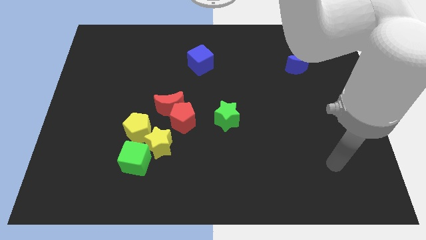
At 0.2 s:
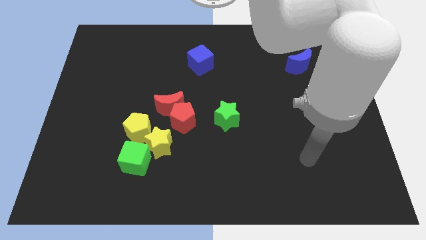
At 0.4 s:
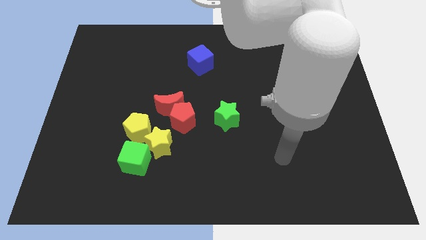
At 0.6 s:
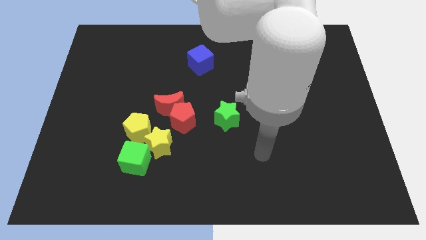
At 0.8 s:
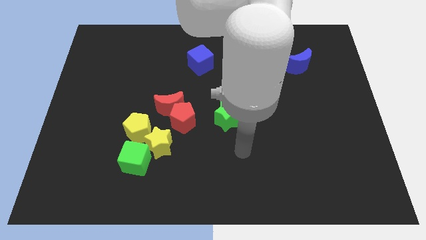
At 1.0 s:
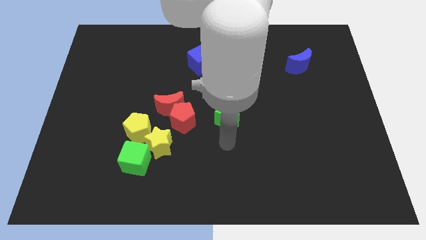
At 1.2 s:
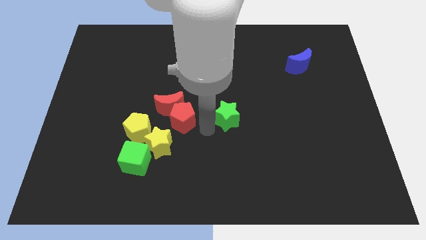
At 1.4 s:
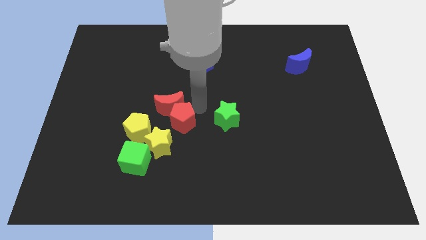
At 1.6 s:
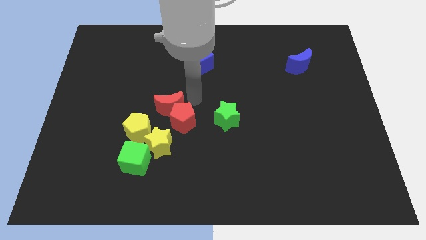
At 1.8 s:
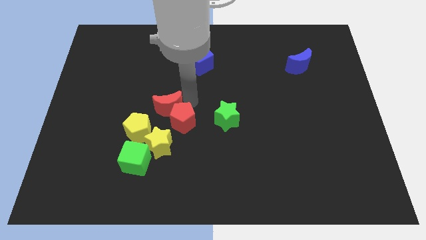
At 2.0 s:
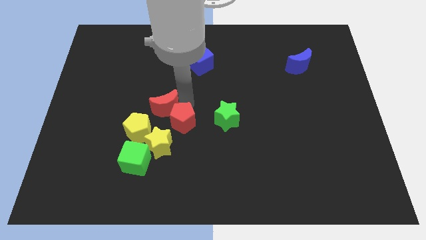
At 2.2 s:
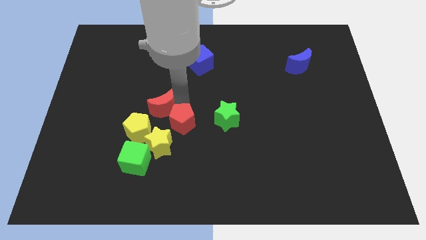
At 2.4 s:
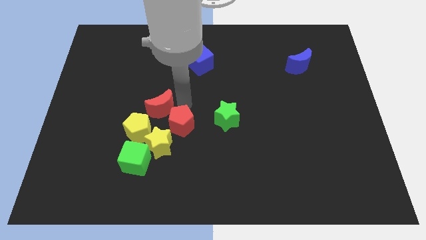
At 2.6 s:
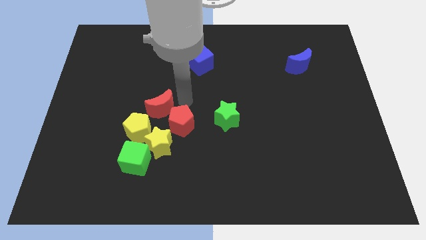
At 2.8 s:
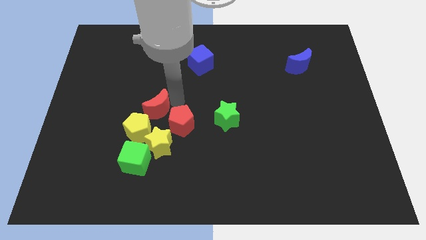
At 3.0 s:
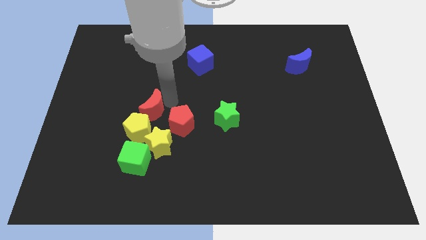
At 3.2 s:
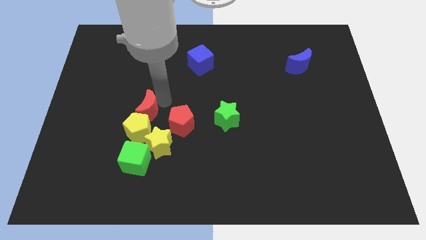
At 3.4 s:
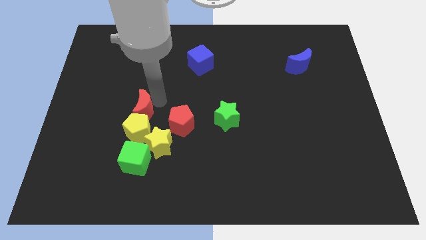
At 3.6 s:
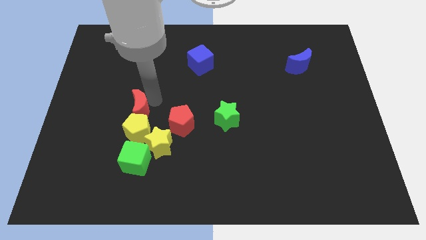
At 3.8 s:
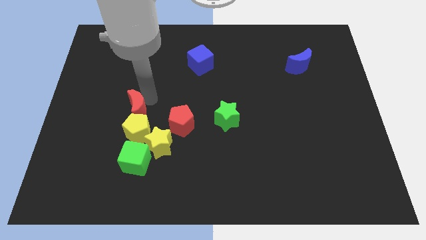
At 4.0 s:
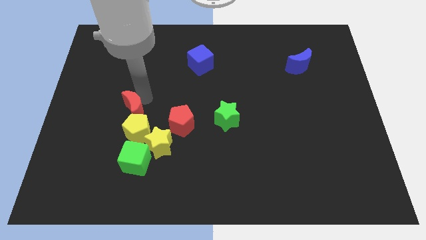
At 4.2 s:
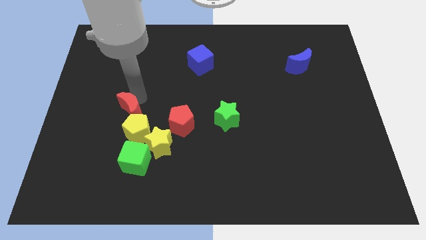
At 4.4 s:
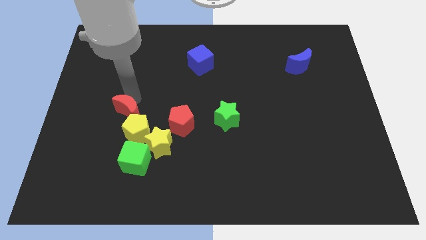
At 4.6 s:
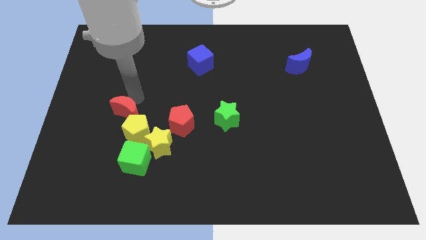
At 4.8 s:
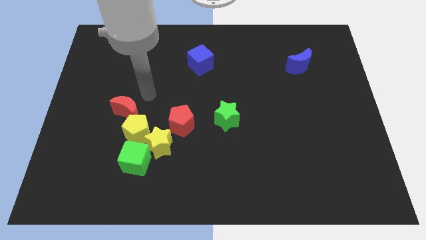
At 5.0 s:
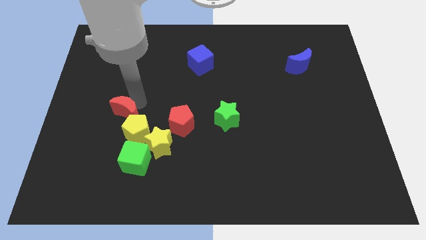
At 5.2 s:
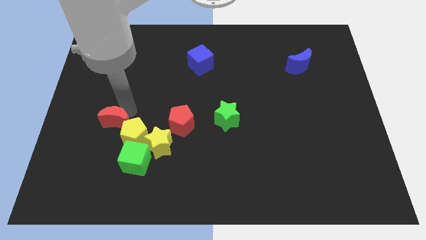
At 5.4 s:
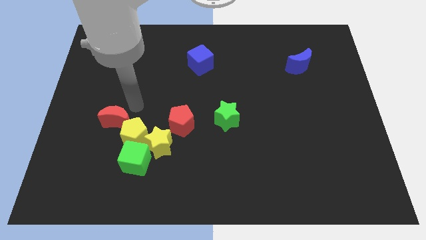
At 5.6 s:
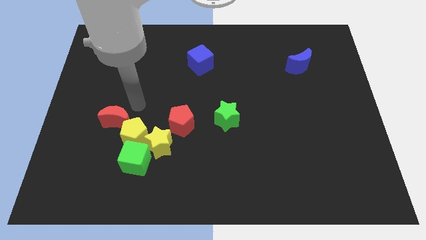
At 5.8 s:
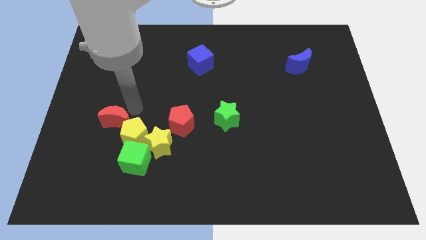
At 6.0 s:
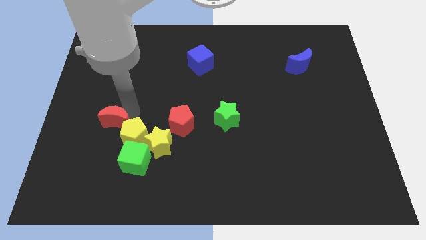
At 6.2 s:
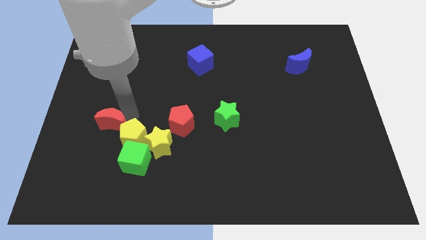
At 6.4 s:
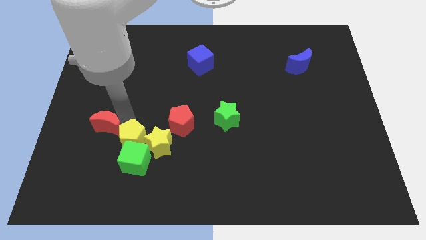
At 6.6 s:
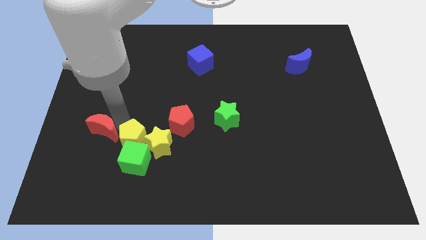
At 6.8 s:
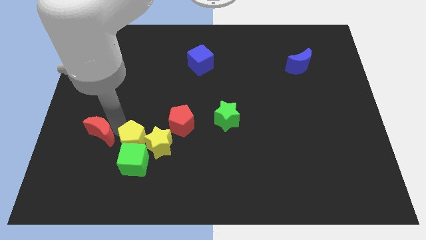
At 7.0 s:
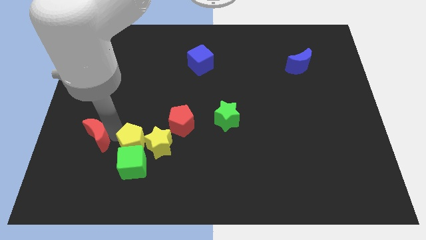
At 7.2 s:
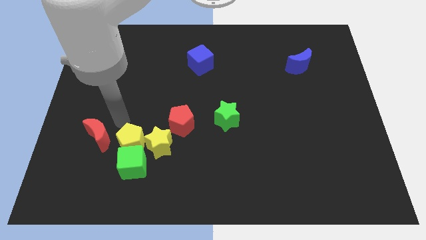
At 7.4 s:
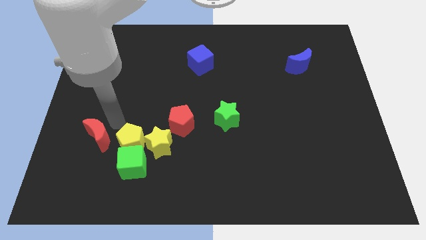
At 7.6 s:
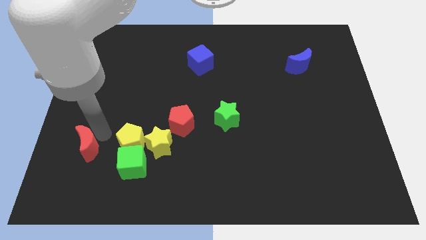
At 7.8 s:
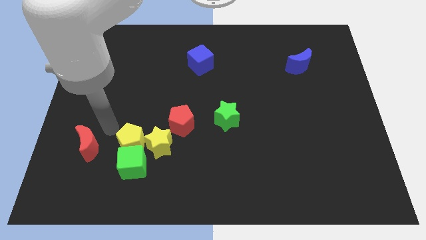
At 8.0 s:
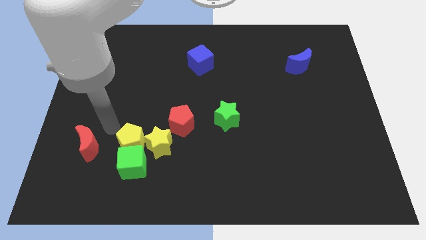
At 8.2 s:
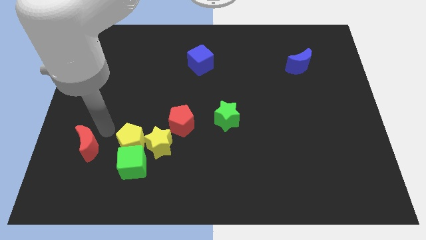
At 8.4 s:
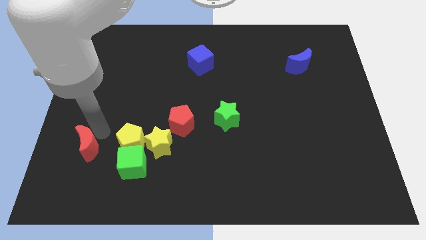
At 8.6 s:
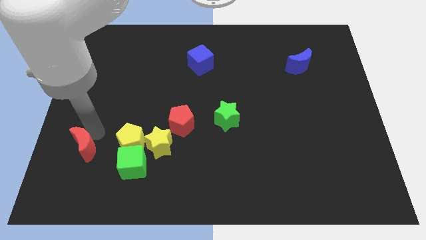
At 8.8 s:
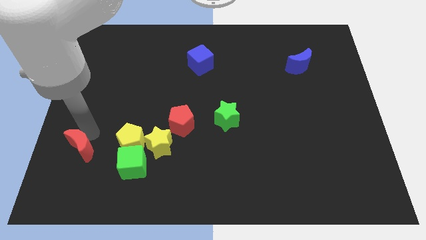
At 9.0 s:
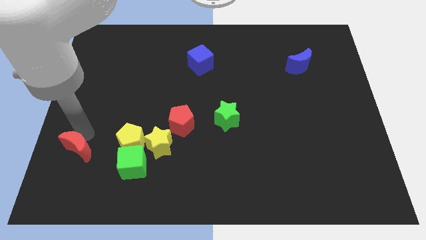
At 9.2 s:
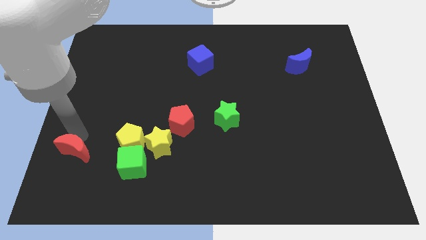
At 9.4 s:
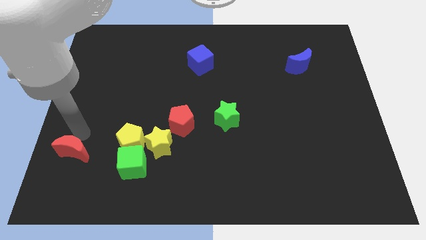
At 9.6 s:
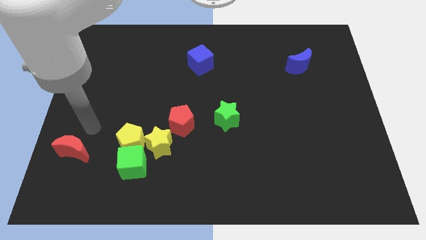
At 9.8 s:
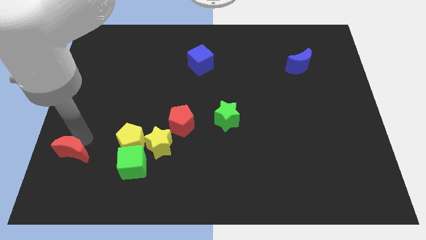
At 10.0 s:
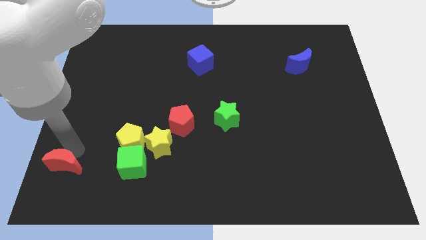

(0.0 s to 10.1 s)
move the red moon to the bottom left corner

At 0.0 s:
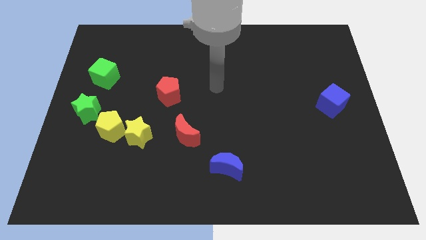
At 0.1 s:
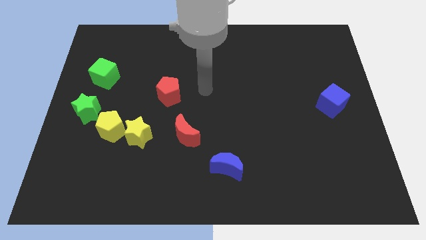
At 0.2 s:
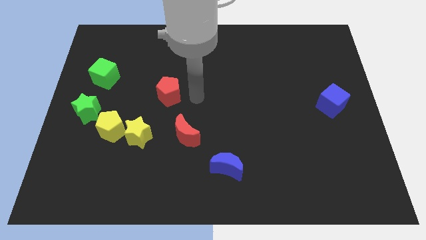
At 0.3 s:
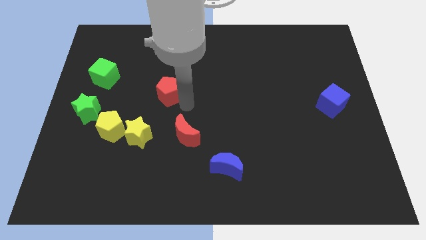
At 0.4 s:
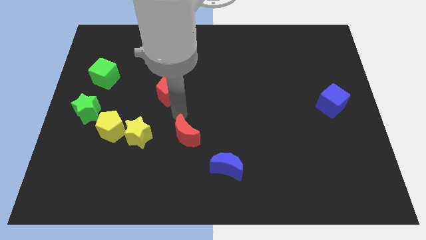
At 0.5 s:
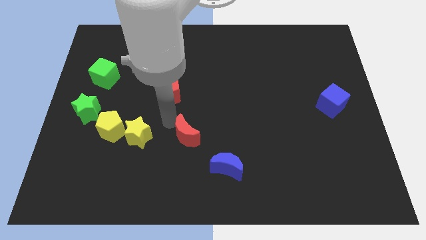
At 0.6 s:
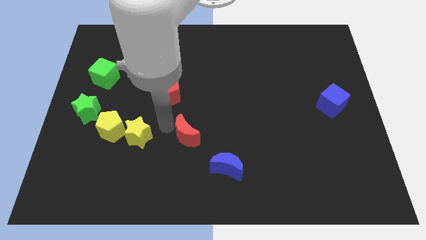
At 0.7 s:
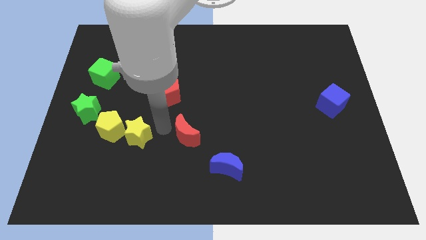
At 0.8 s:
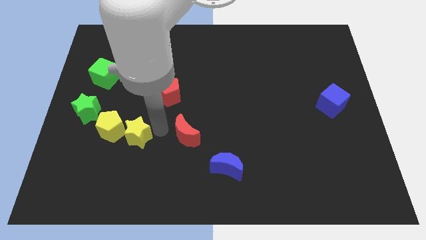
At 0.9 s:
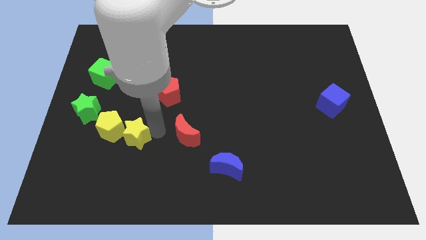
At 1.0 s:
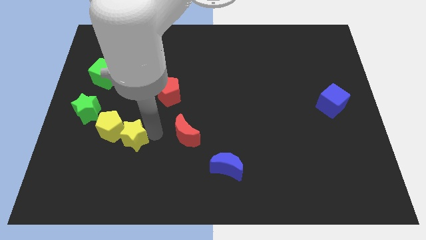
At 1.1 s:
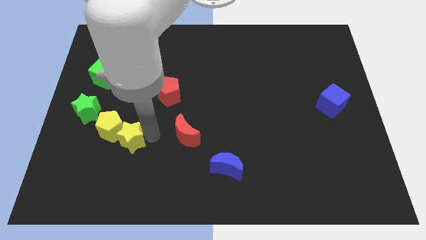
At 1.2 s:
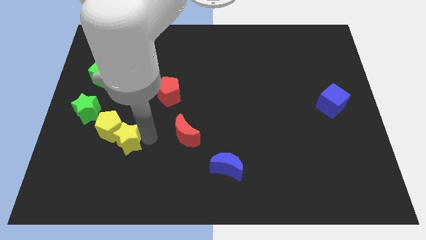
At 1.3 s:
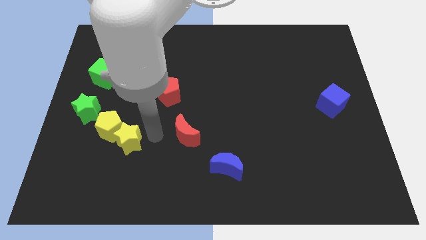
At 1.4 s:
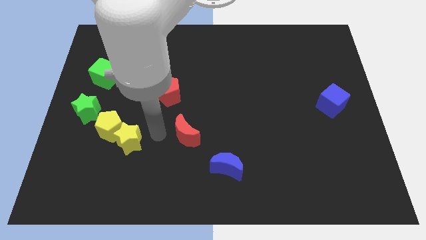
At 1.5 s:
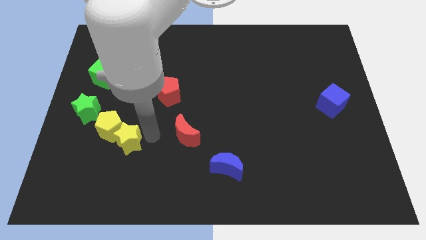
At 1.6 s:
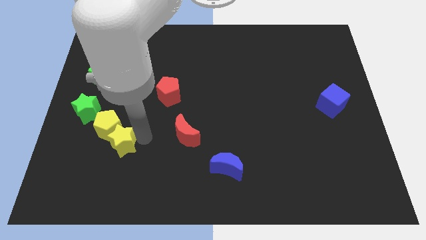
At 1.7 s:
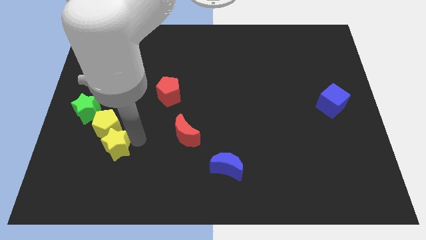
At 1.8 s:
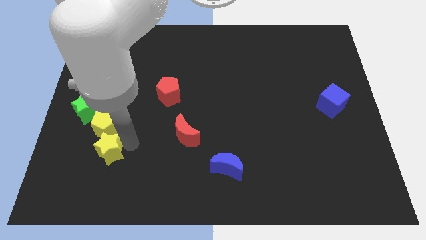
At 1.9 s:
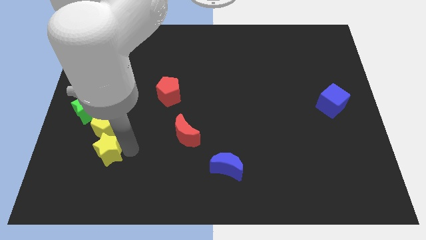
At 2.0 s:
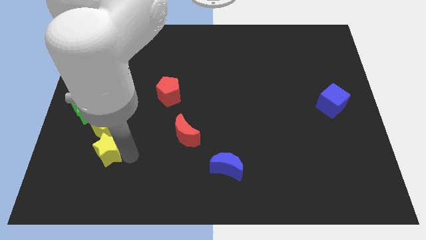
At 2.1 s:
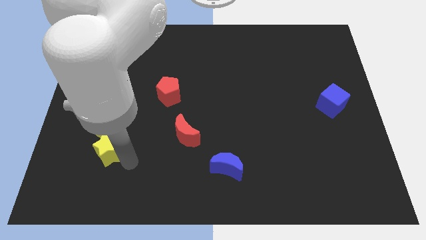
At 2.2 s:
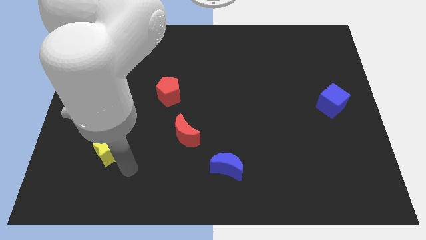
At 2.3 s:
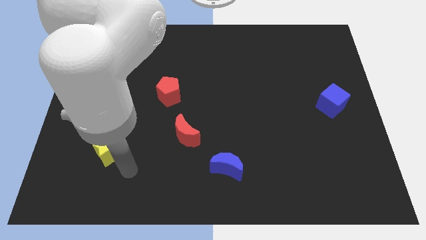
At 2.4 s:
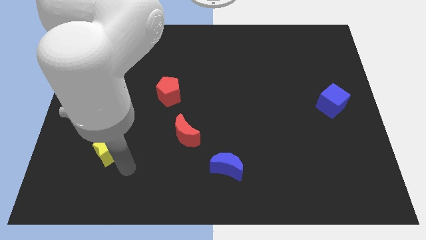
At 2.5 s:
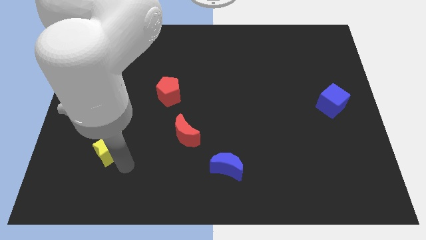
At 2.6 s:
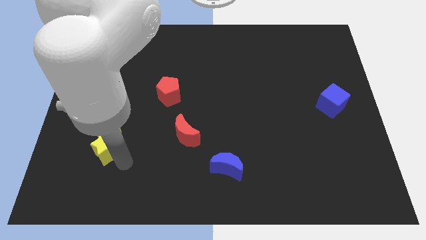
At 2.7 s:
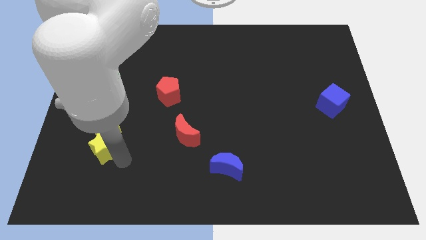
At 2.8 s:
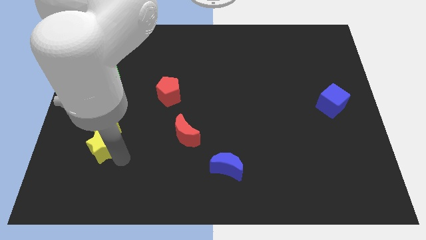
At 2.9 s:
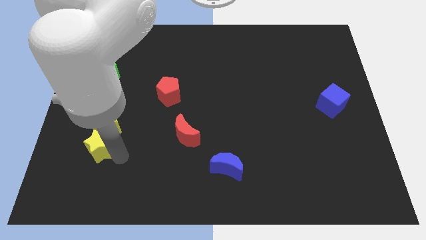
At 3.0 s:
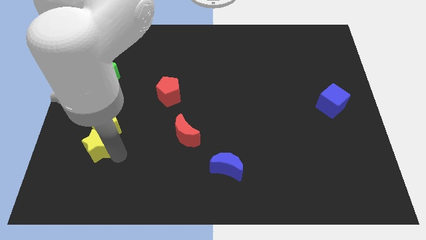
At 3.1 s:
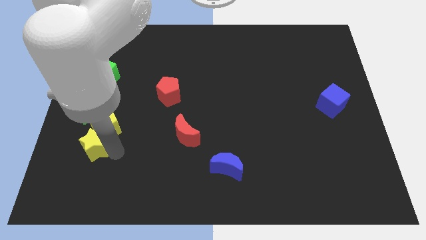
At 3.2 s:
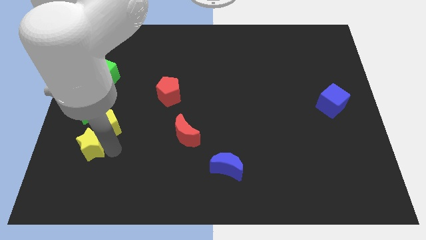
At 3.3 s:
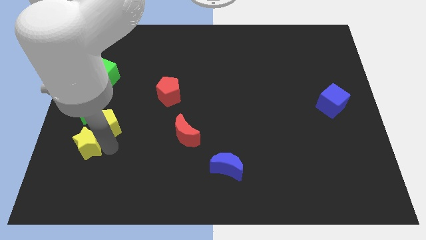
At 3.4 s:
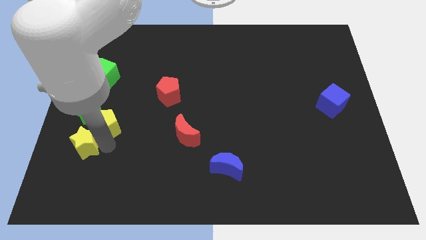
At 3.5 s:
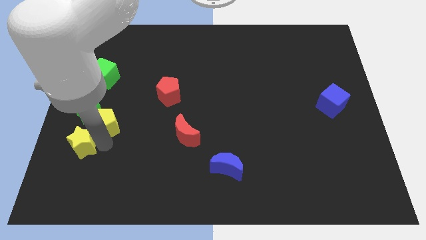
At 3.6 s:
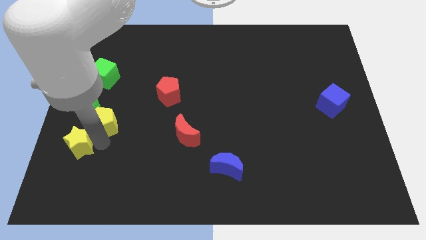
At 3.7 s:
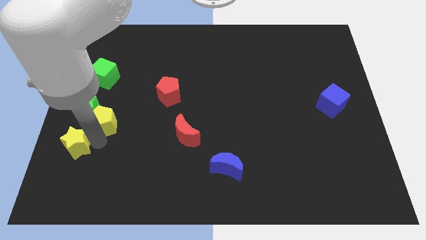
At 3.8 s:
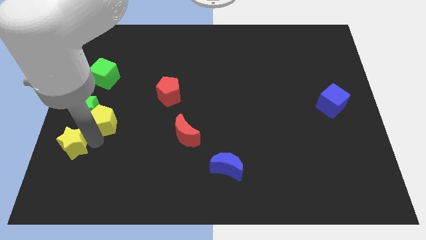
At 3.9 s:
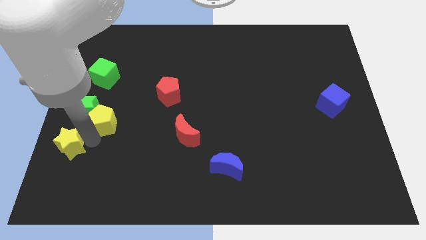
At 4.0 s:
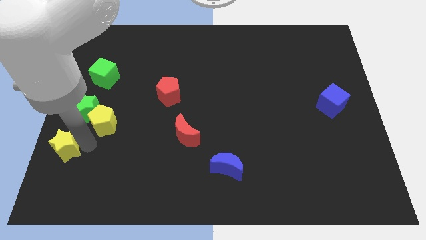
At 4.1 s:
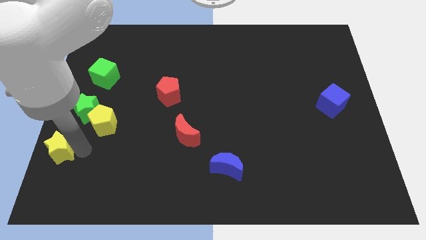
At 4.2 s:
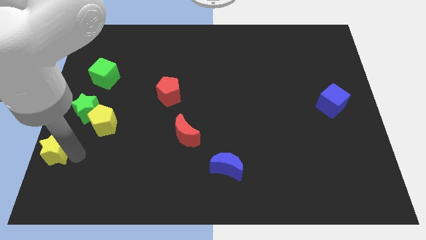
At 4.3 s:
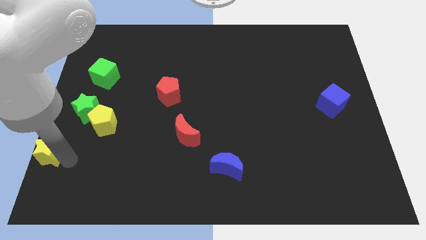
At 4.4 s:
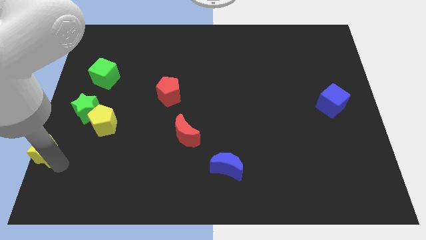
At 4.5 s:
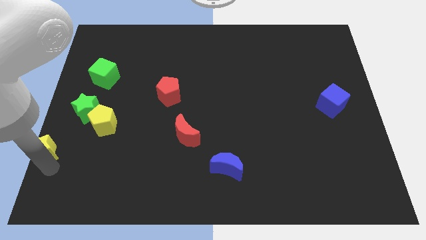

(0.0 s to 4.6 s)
push the yellow star to the left side of the board
